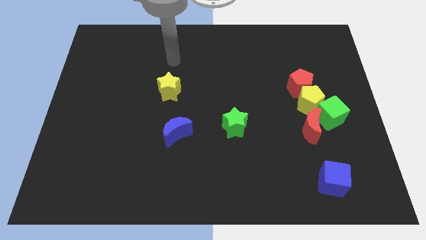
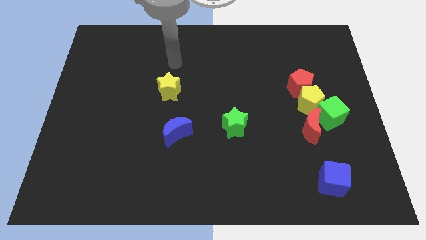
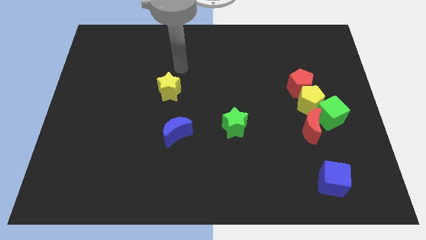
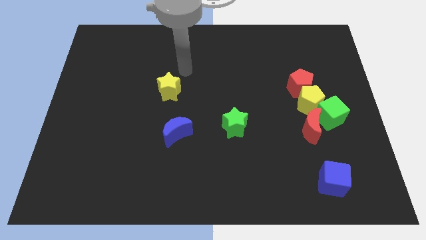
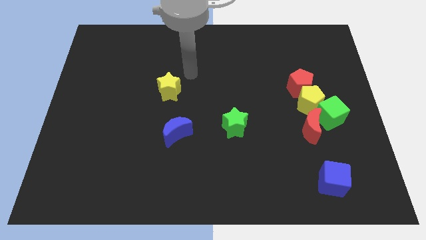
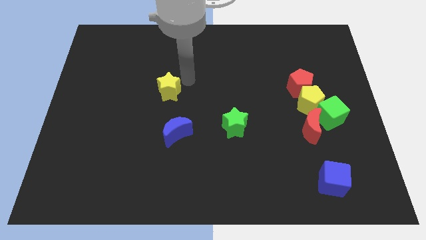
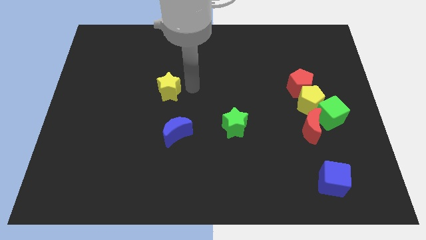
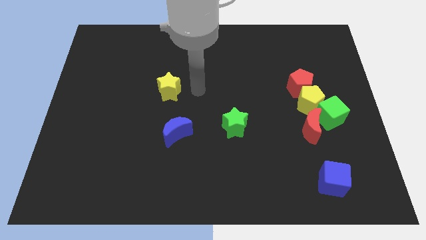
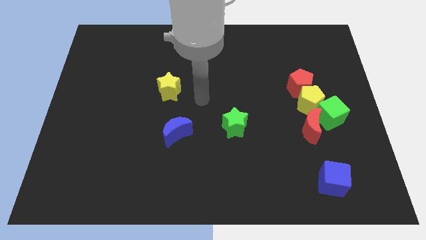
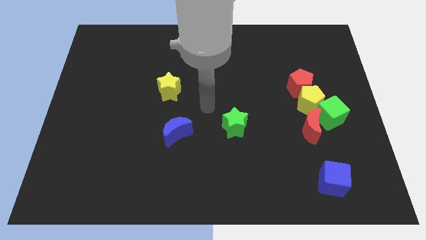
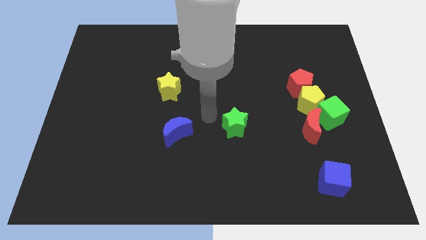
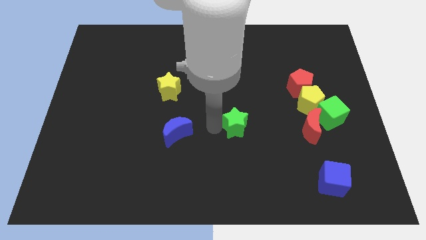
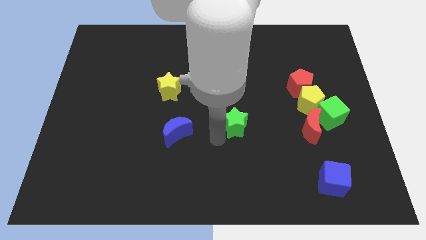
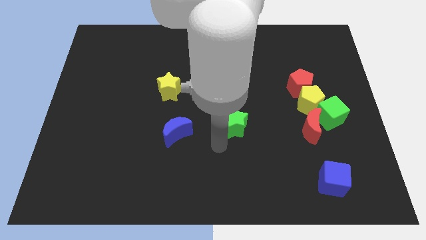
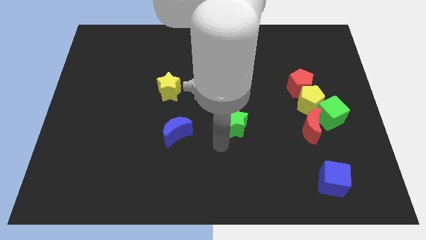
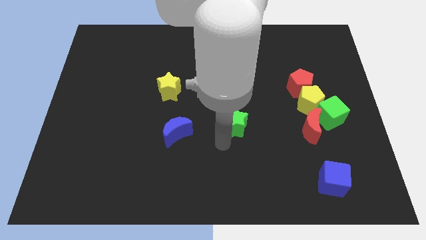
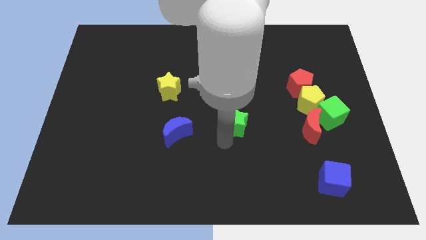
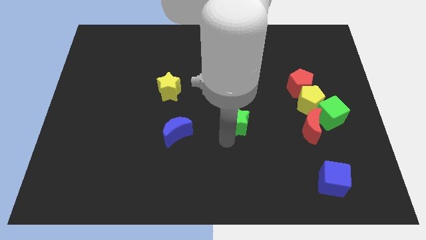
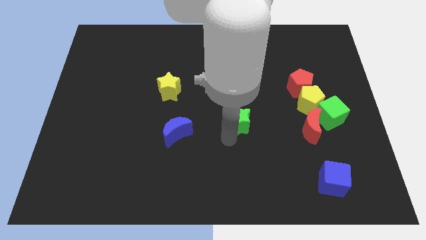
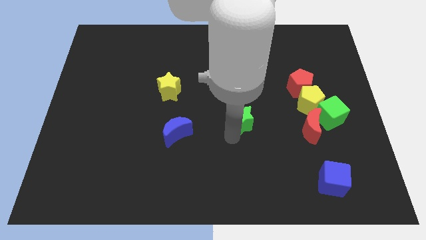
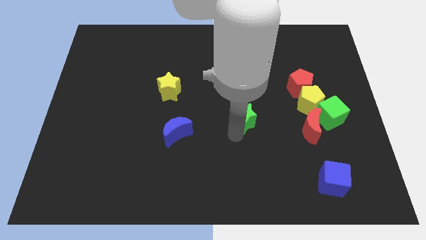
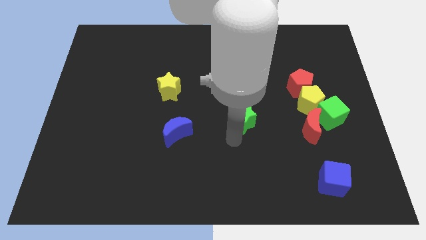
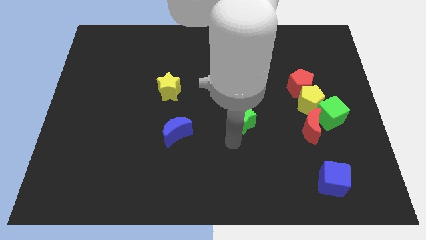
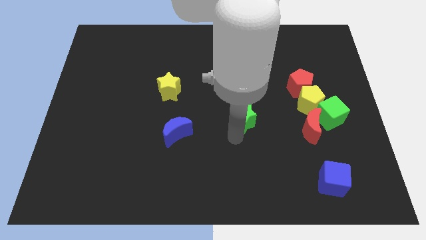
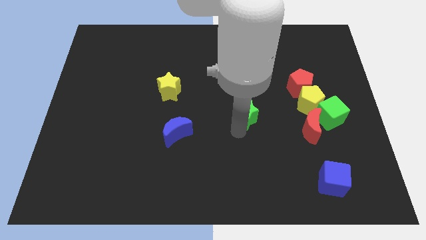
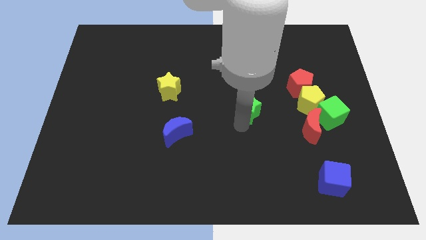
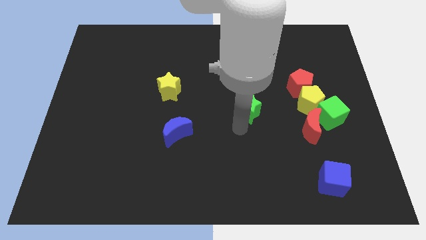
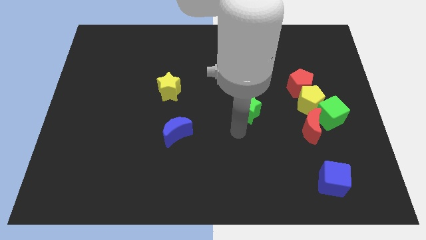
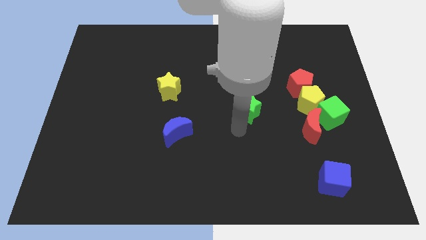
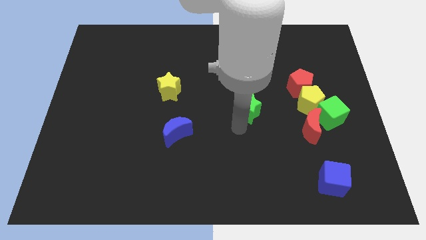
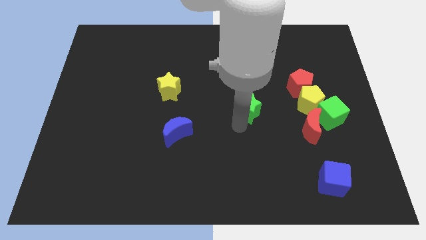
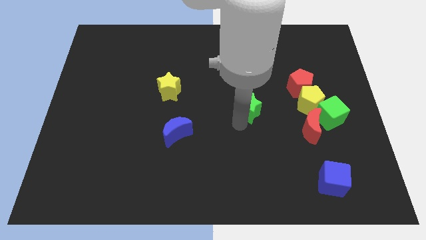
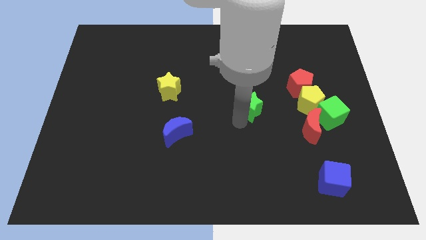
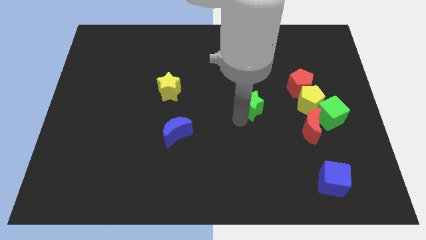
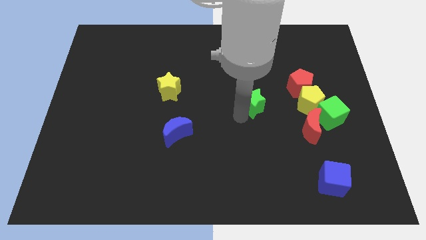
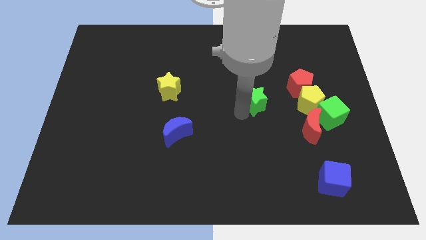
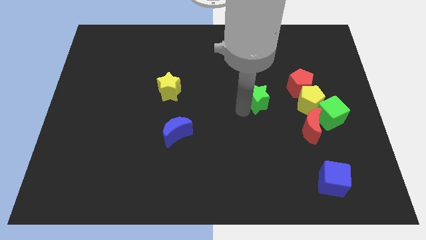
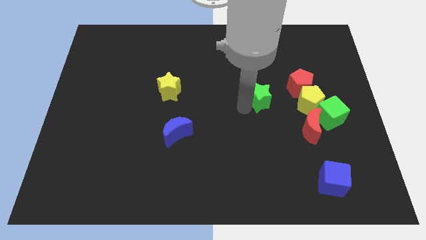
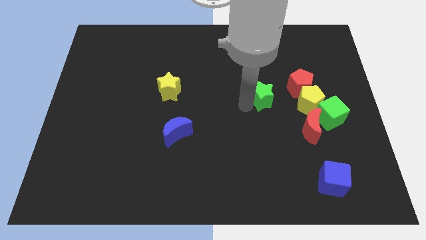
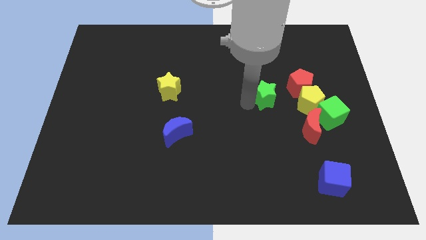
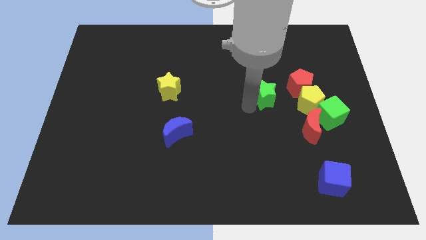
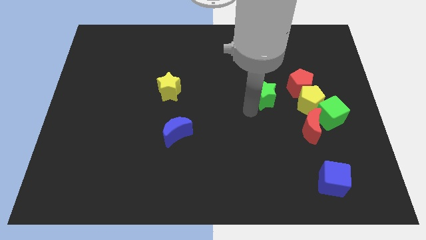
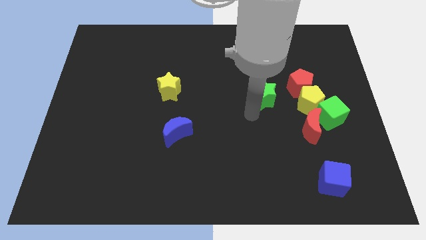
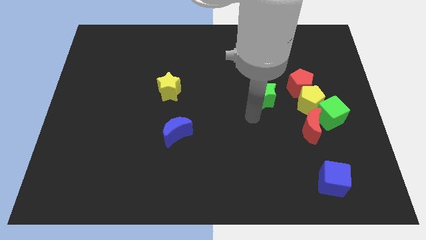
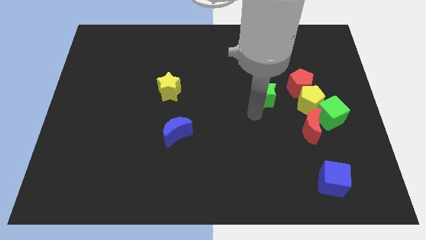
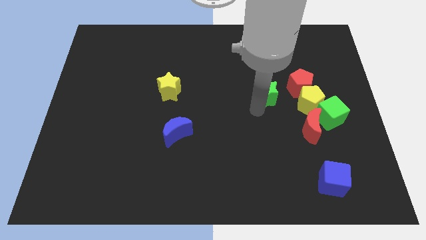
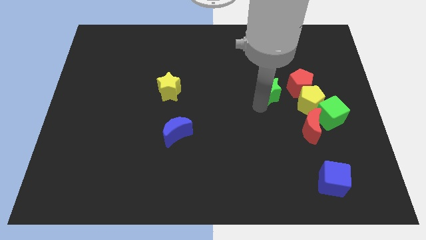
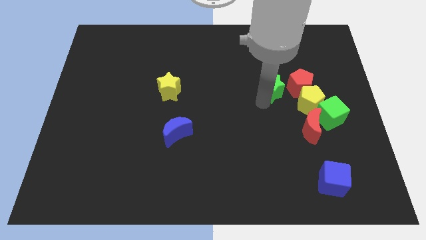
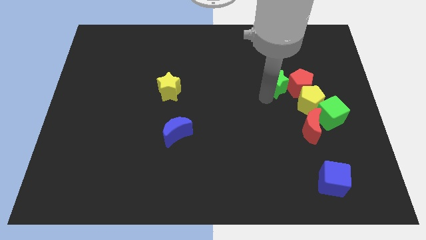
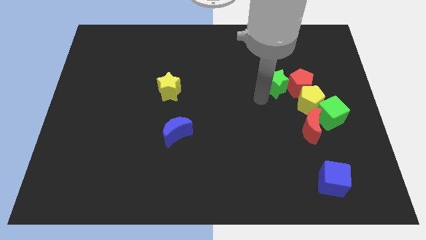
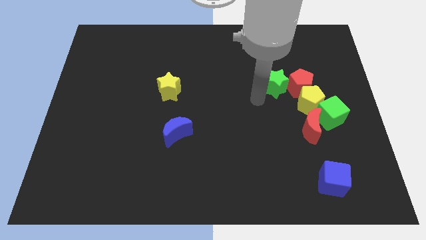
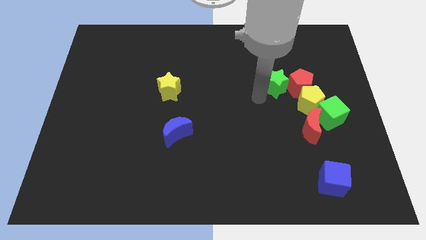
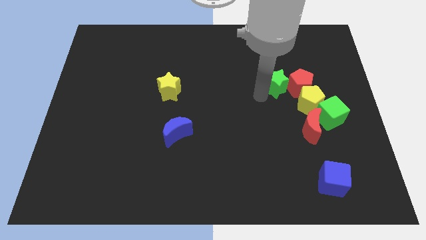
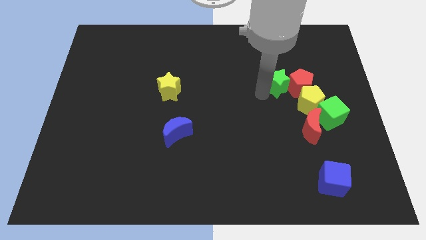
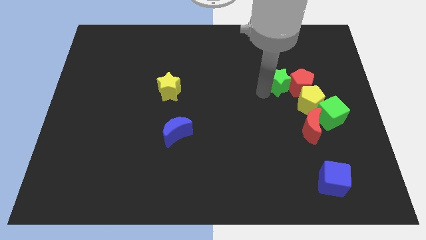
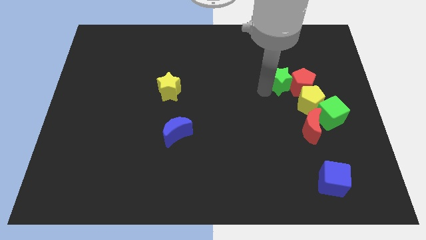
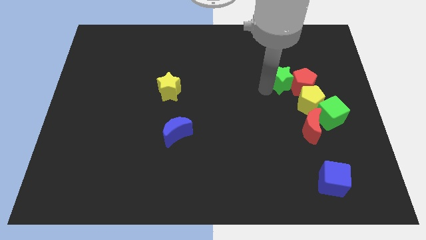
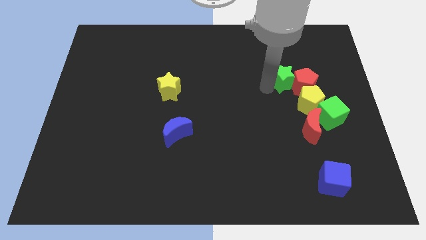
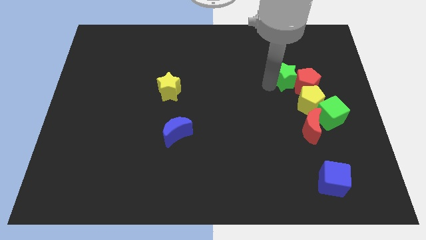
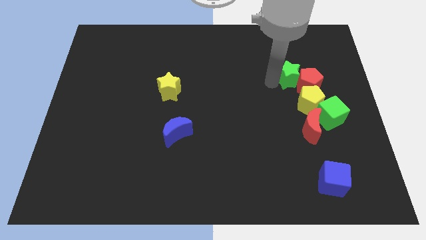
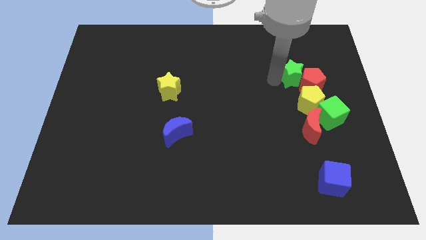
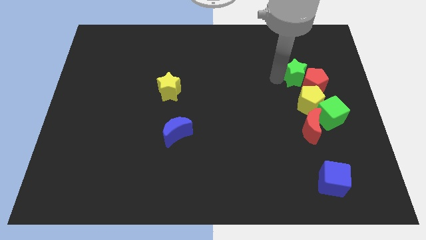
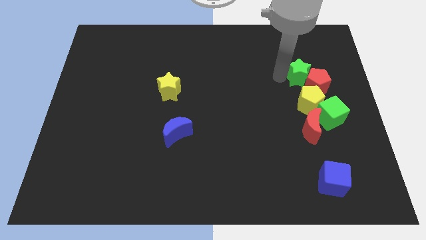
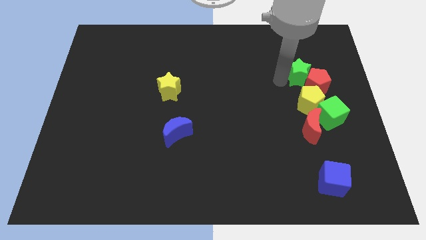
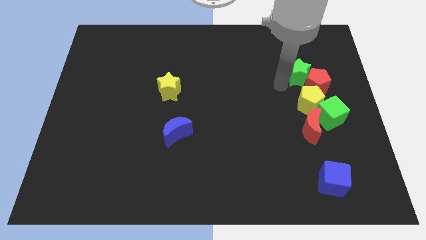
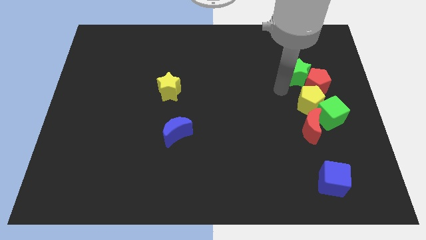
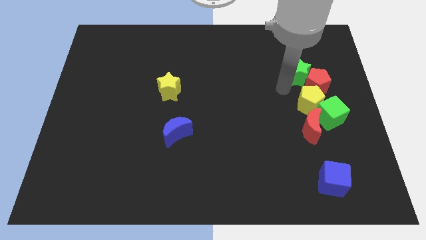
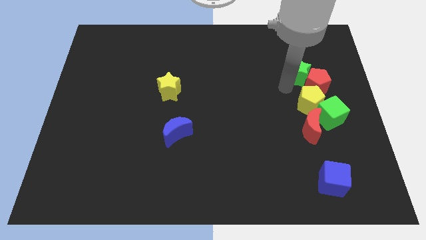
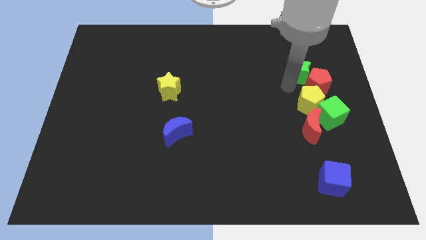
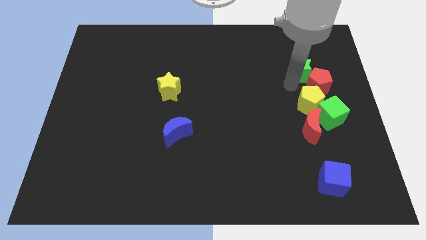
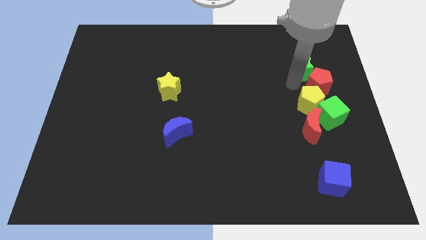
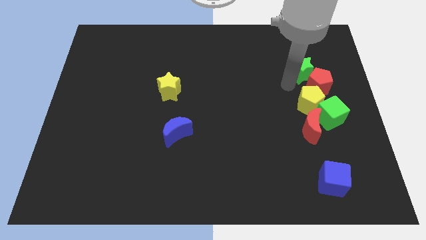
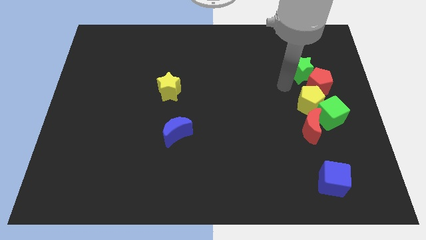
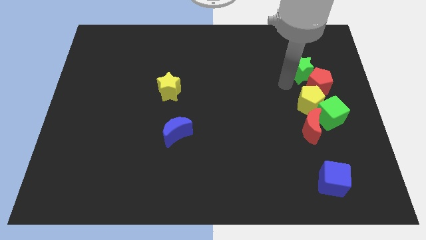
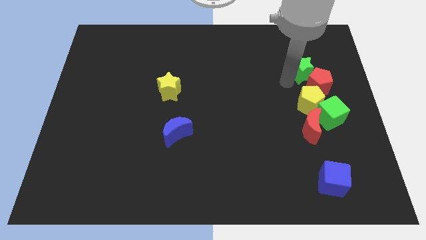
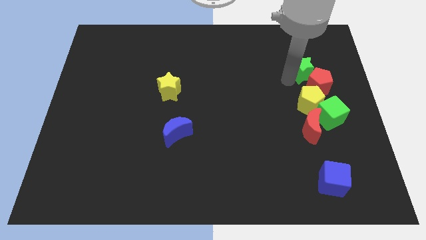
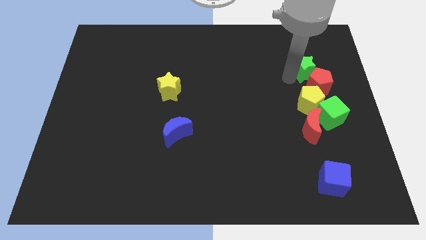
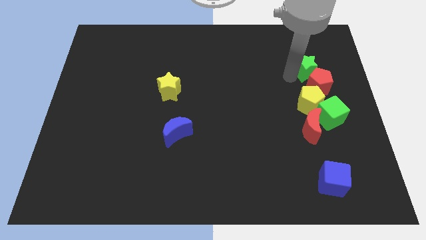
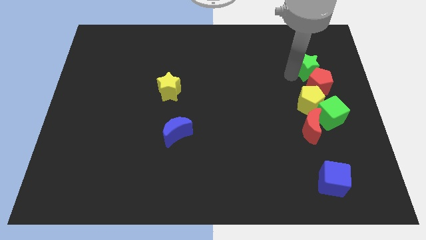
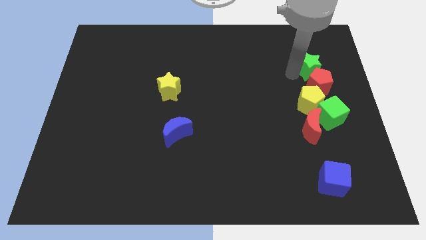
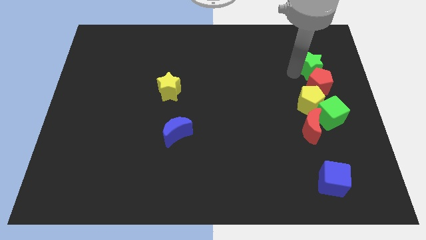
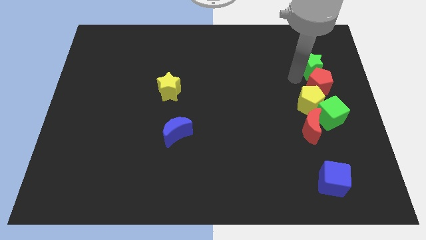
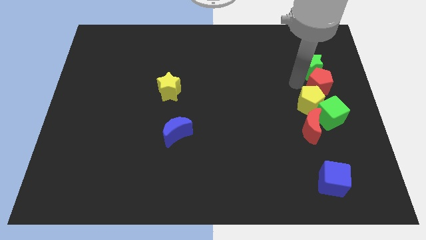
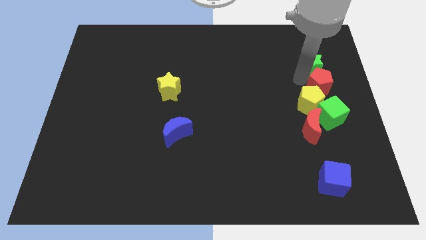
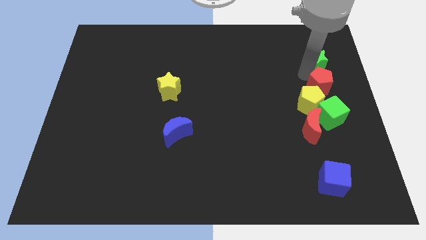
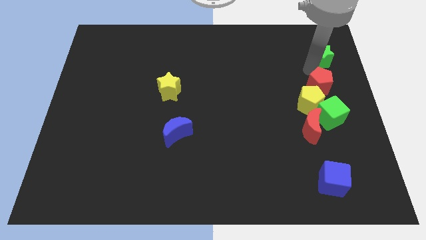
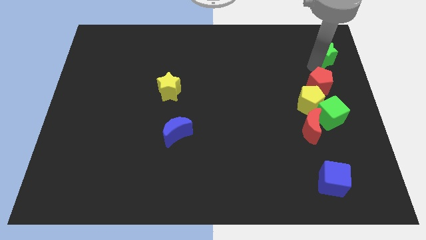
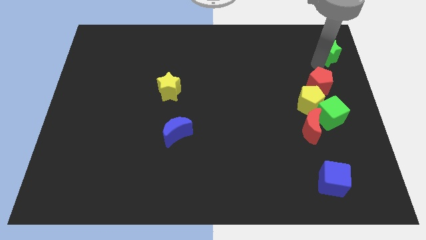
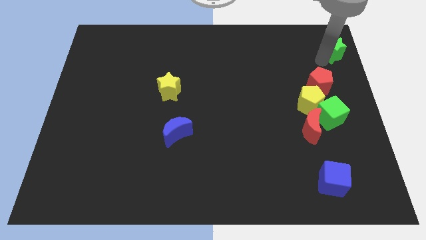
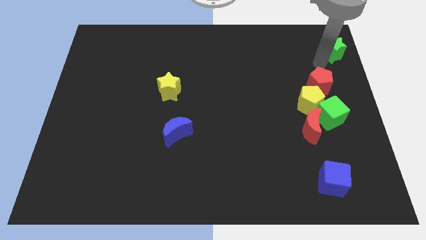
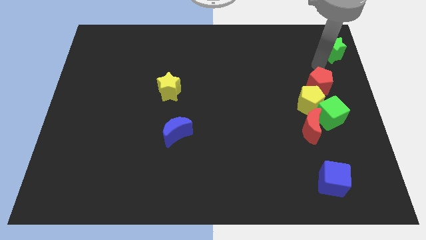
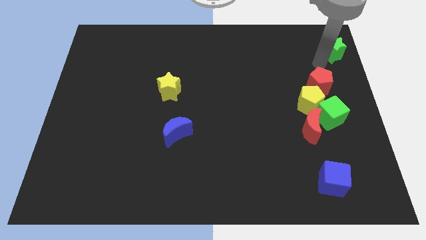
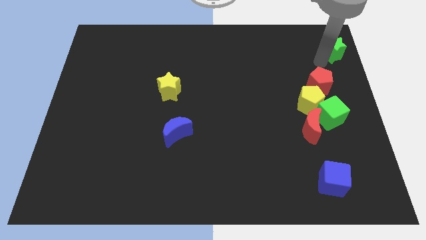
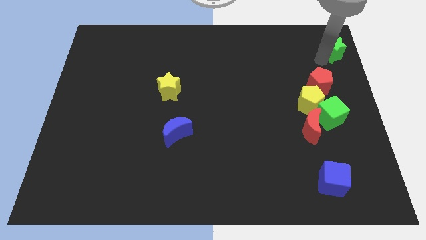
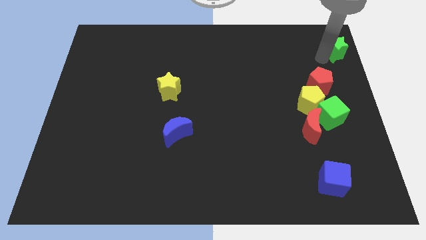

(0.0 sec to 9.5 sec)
move the green star to the top right of the board
